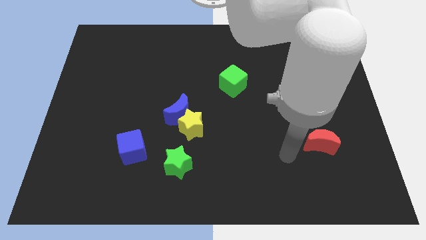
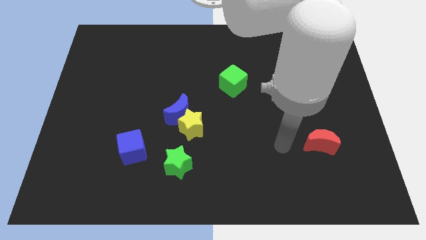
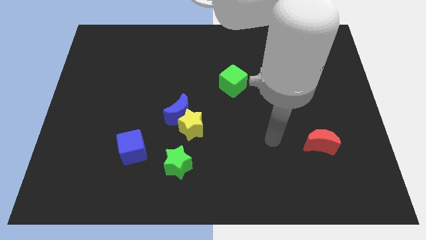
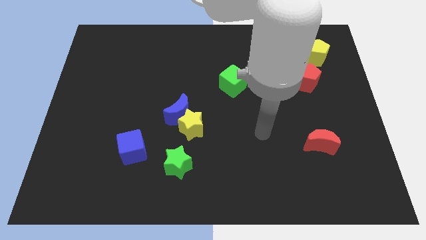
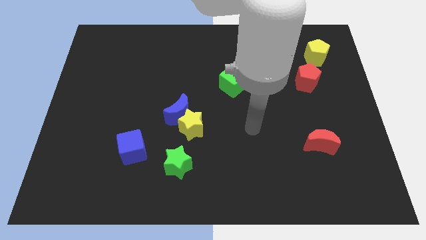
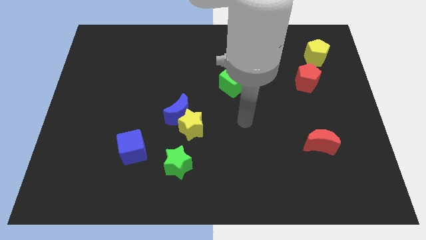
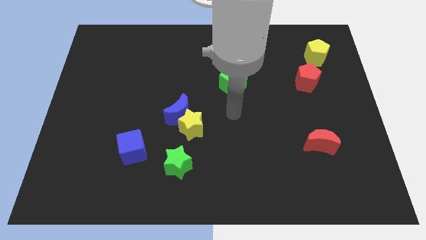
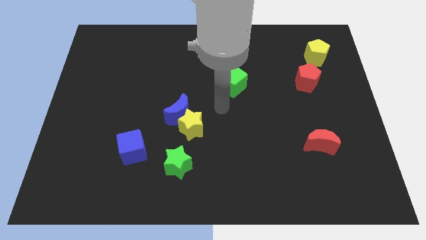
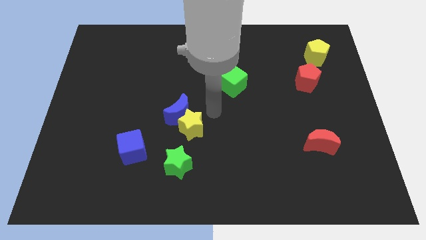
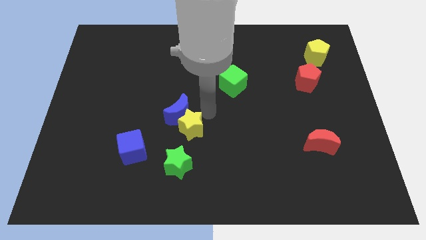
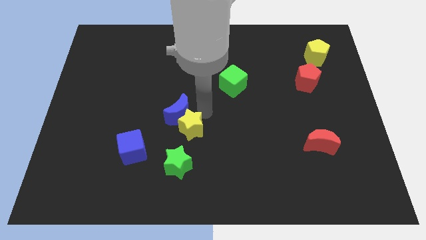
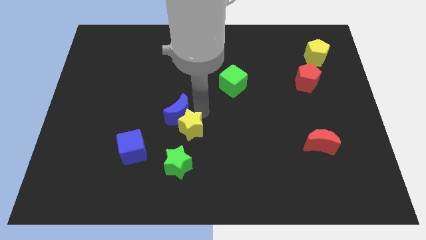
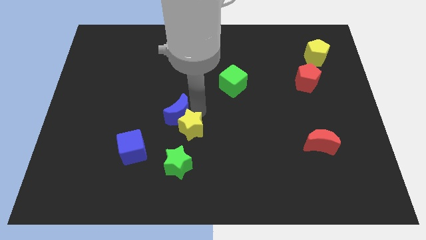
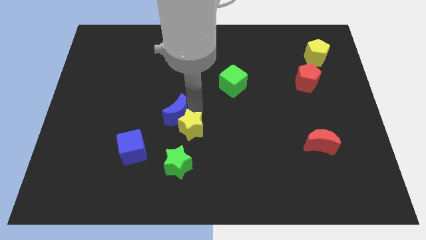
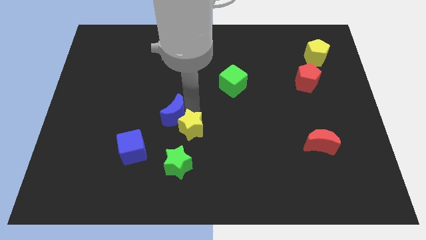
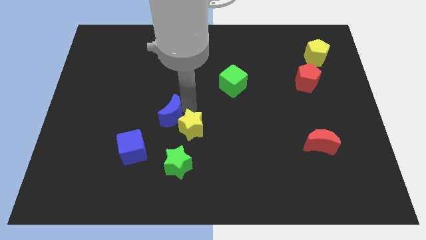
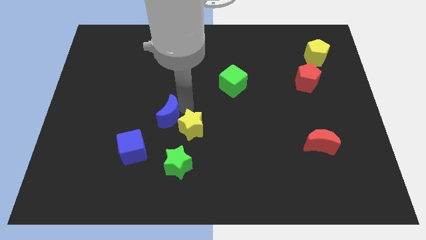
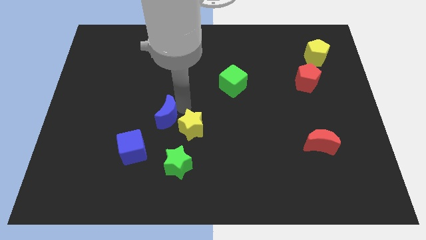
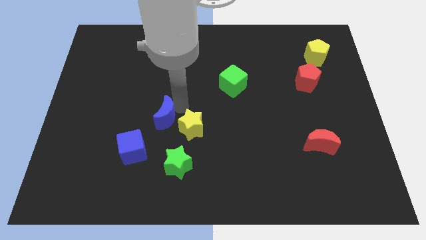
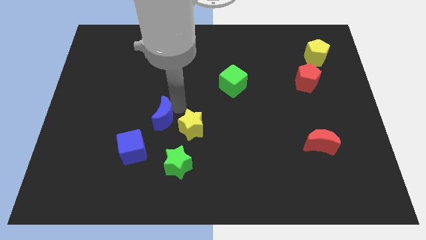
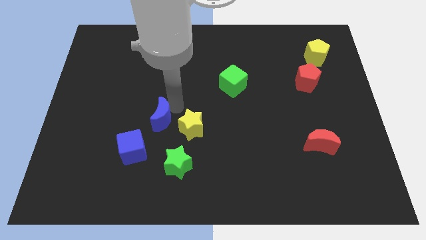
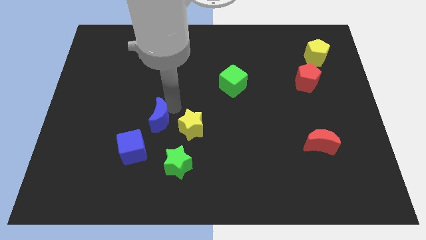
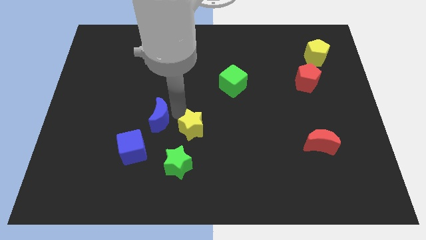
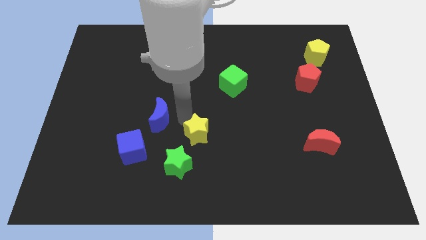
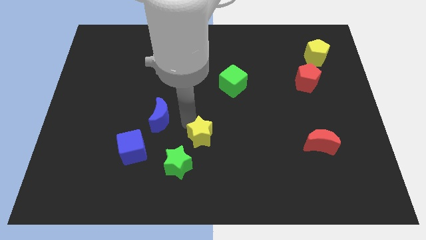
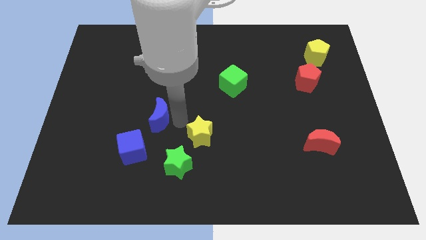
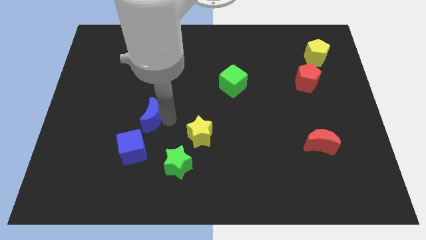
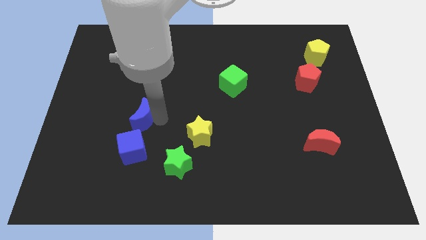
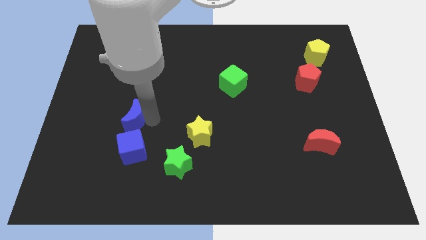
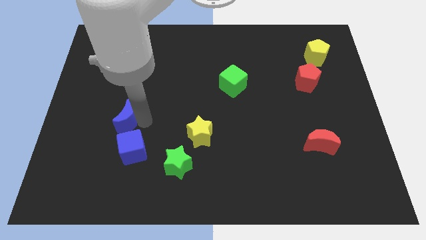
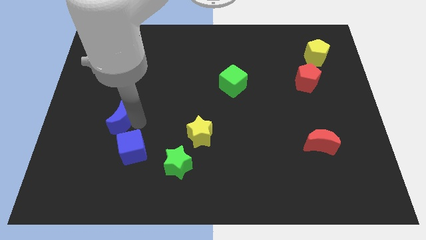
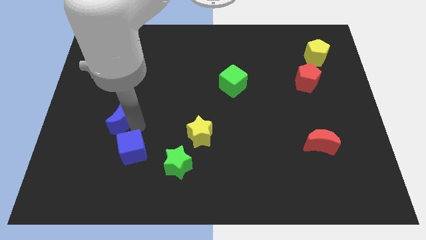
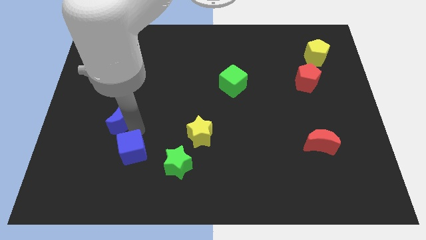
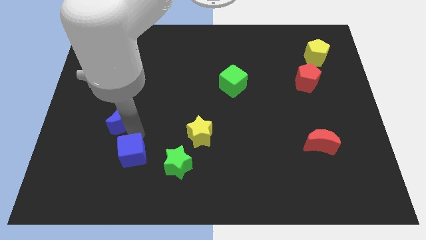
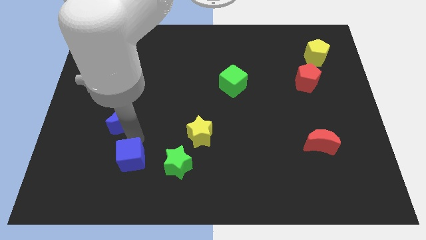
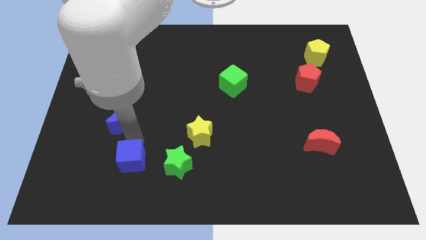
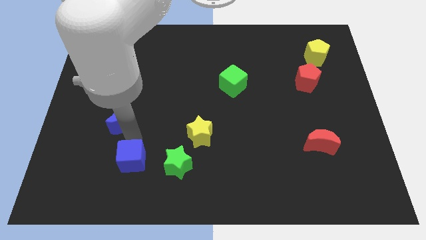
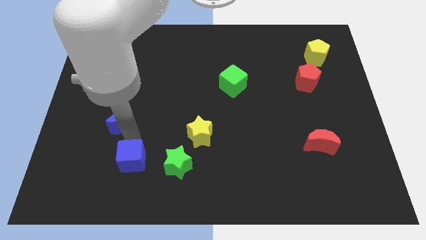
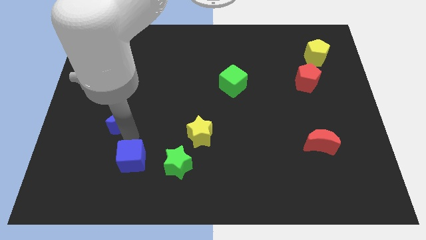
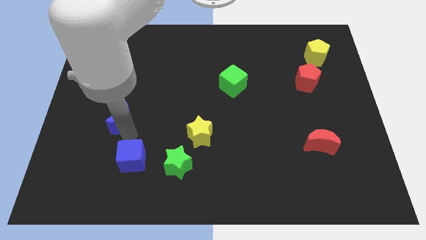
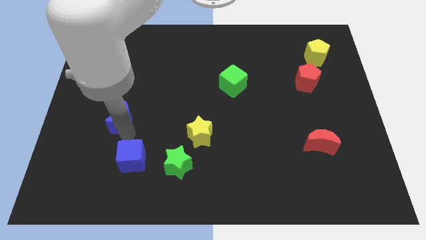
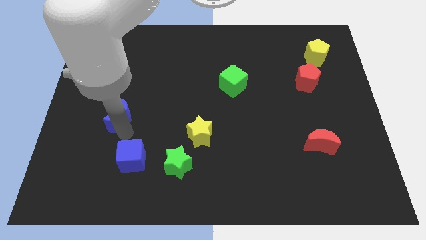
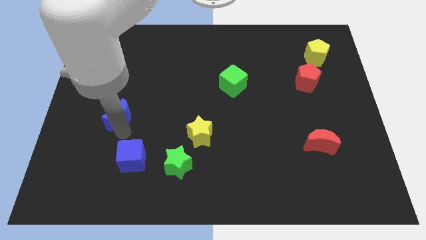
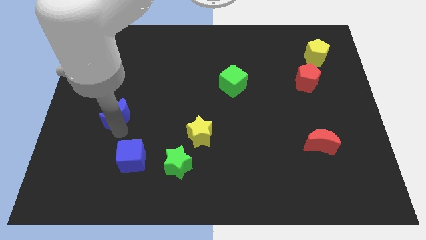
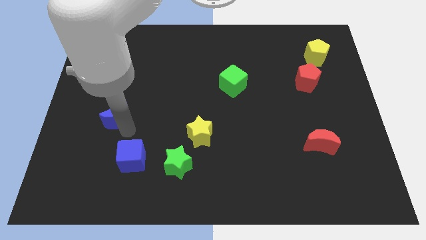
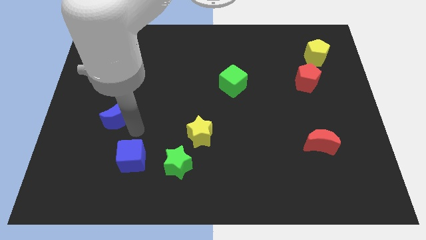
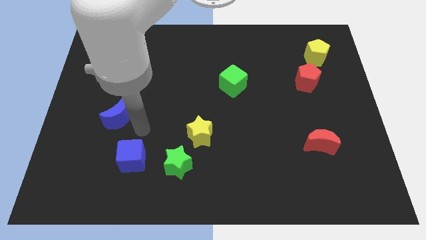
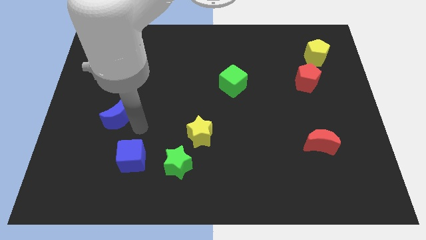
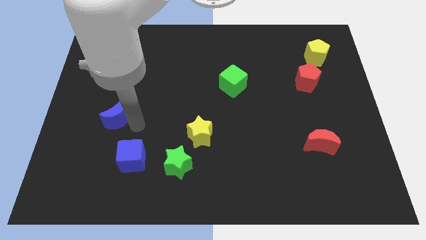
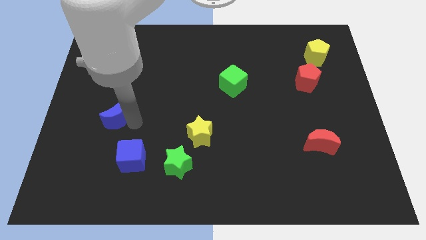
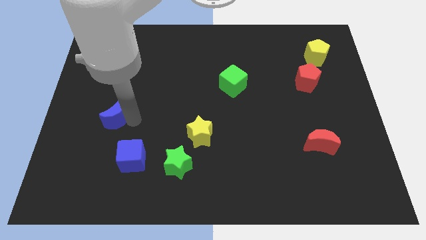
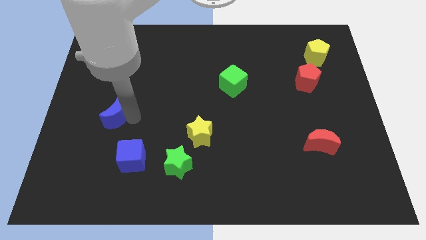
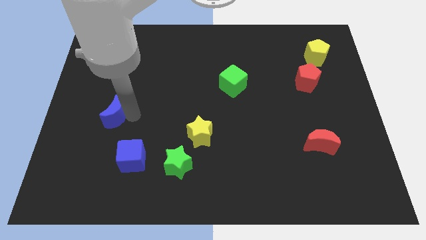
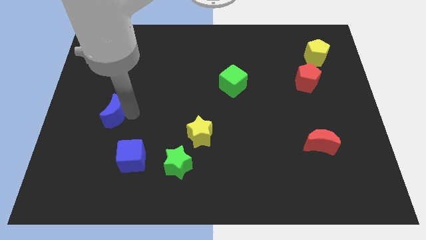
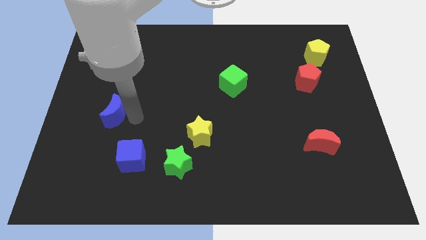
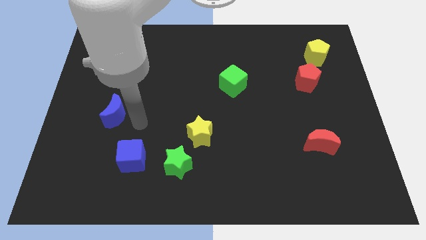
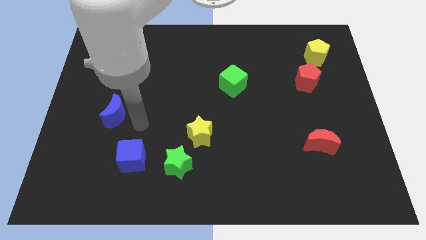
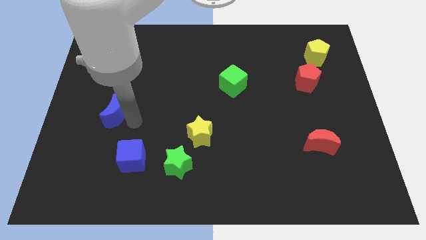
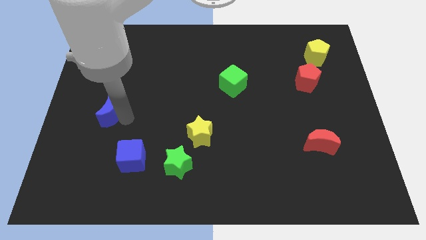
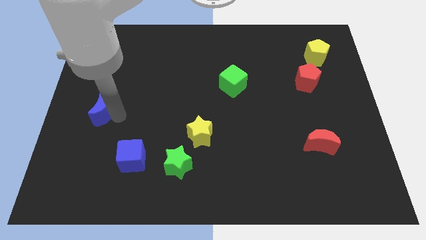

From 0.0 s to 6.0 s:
move the blue moon to the center left
